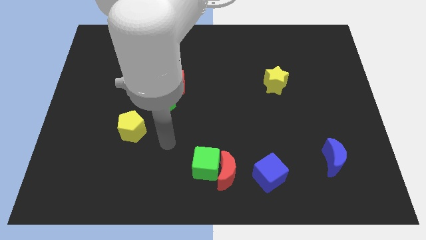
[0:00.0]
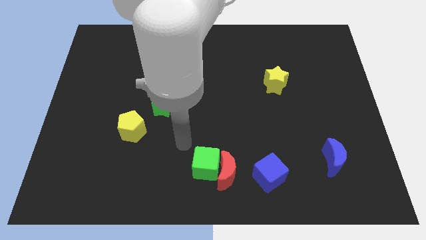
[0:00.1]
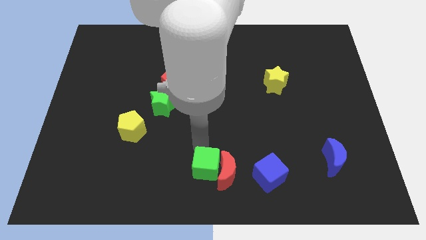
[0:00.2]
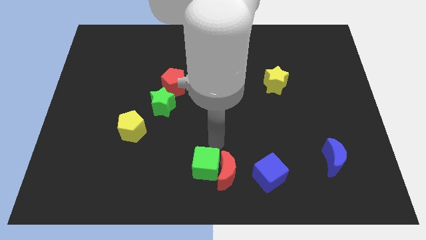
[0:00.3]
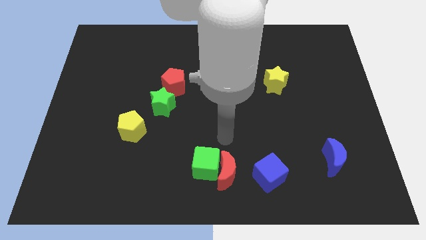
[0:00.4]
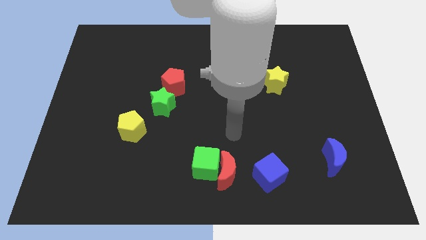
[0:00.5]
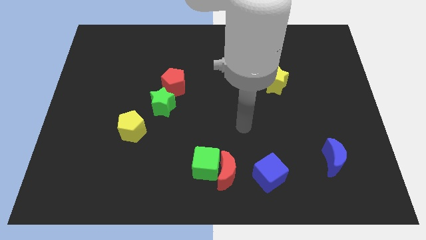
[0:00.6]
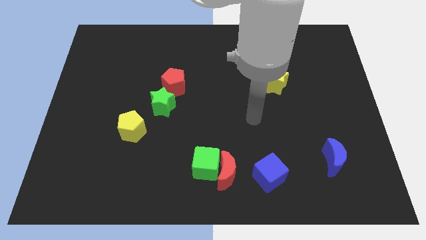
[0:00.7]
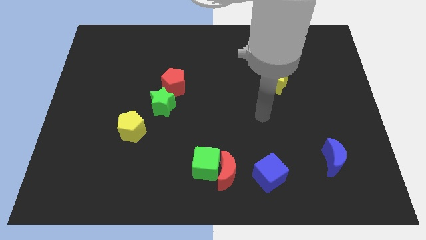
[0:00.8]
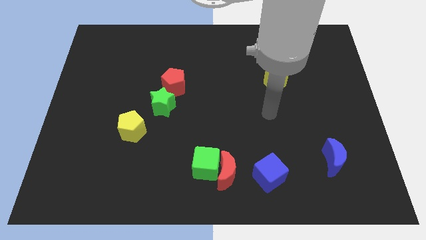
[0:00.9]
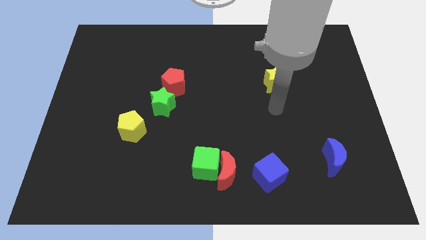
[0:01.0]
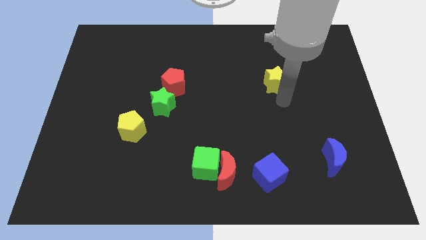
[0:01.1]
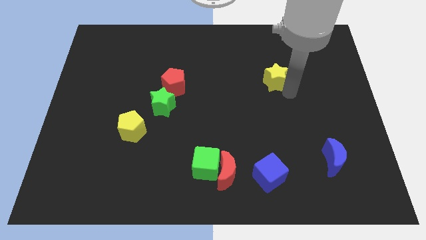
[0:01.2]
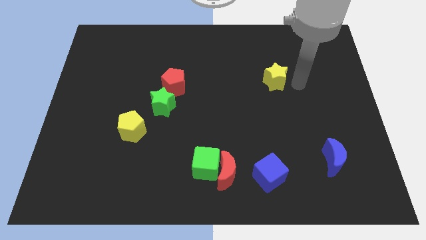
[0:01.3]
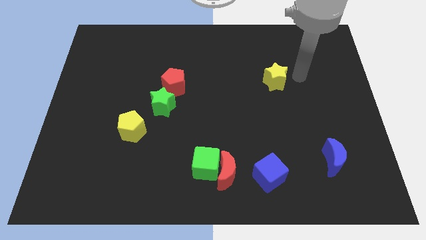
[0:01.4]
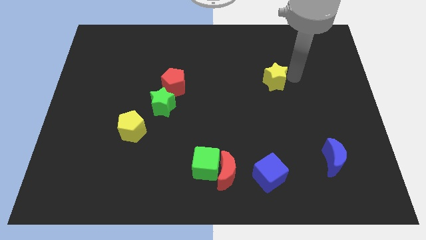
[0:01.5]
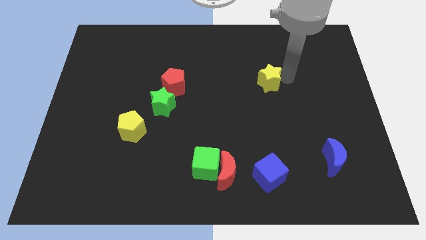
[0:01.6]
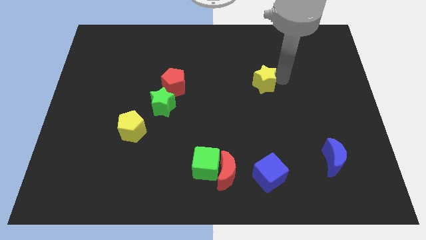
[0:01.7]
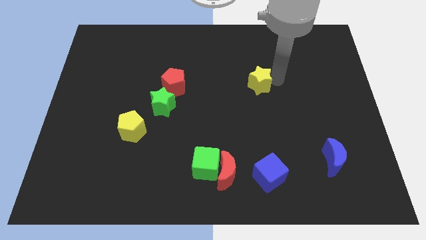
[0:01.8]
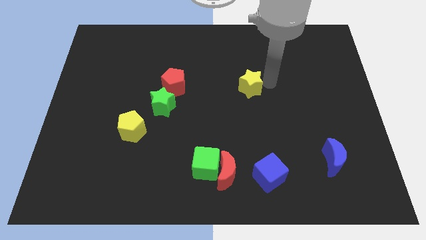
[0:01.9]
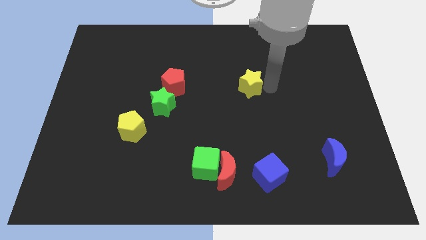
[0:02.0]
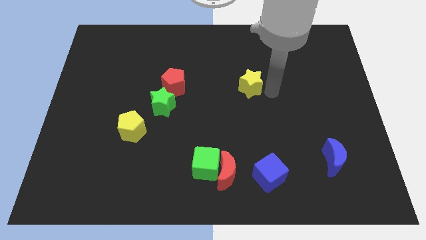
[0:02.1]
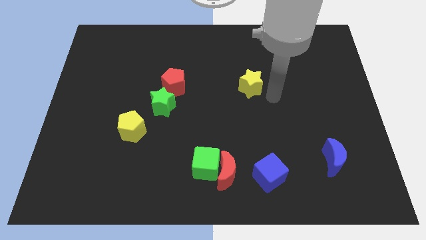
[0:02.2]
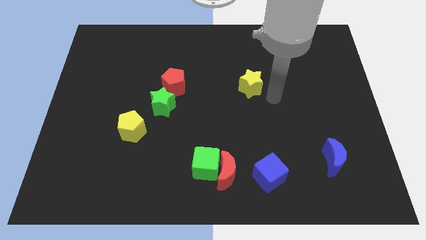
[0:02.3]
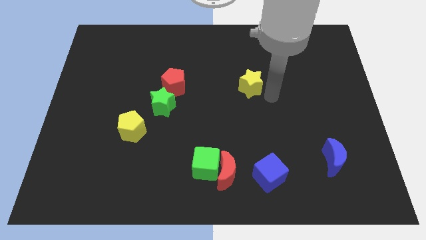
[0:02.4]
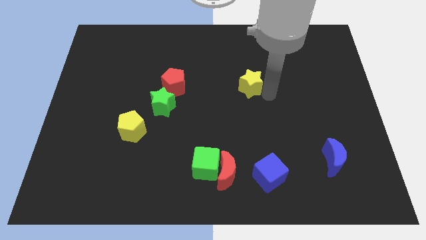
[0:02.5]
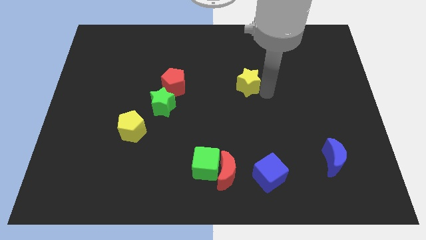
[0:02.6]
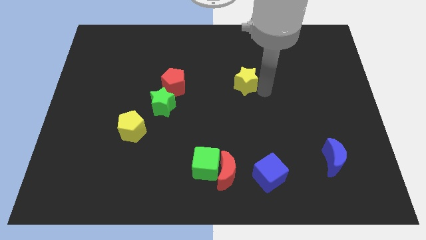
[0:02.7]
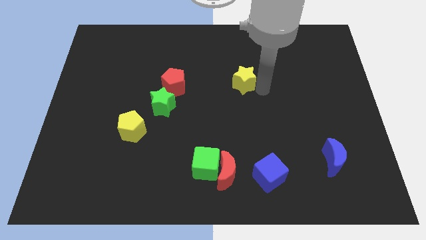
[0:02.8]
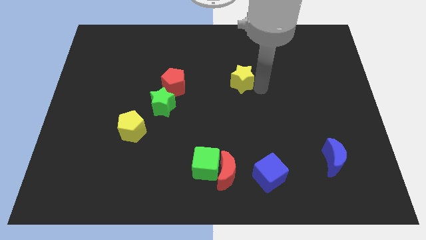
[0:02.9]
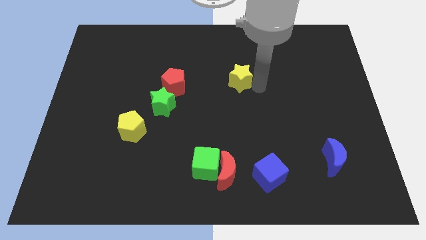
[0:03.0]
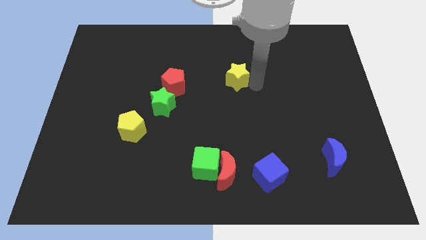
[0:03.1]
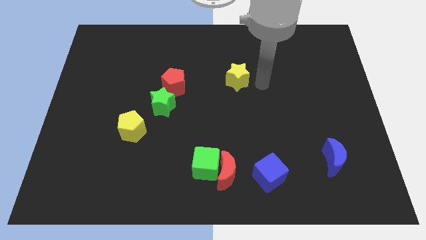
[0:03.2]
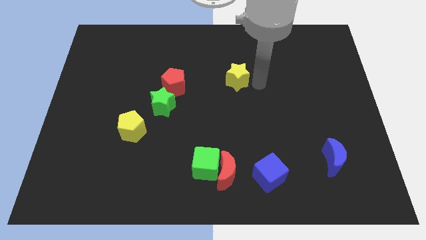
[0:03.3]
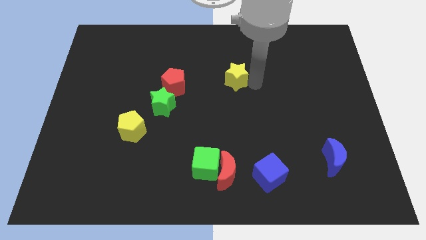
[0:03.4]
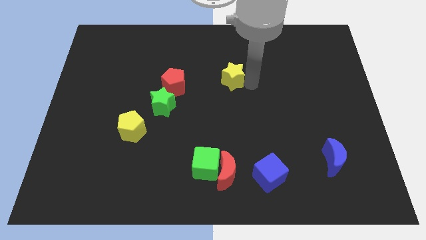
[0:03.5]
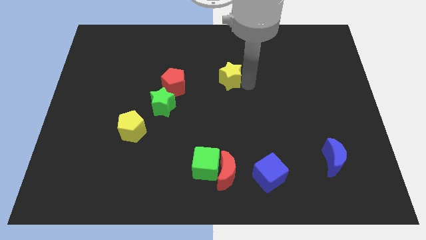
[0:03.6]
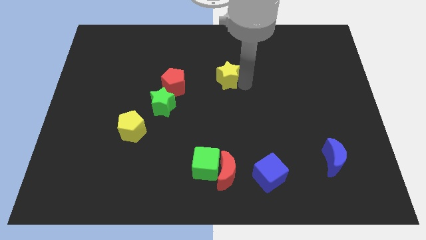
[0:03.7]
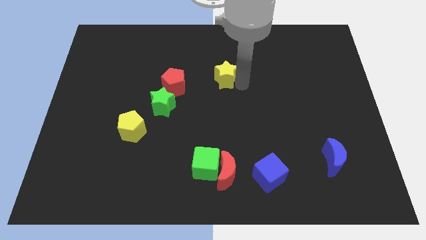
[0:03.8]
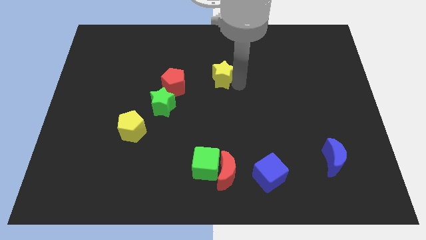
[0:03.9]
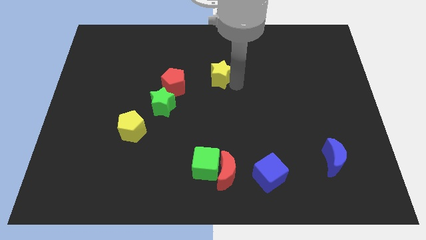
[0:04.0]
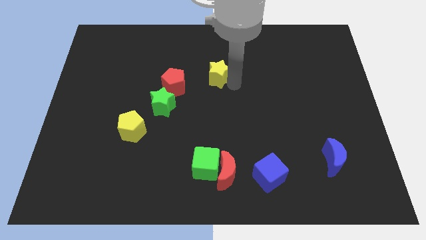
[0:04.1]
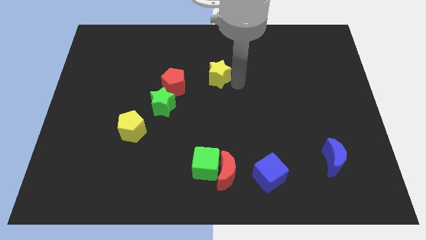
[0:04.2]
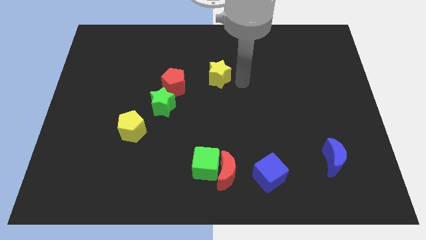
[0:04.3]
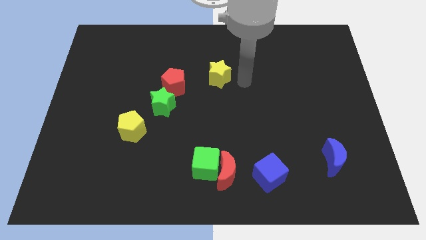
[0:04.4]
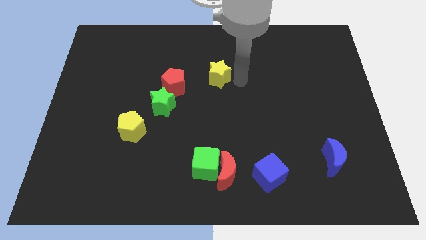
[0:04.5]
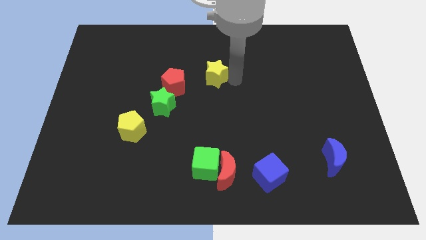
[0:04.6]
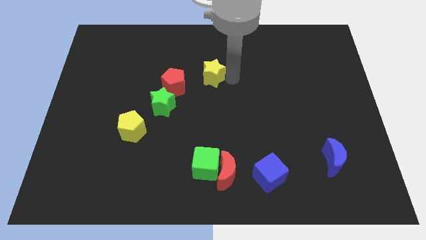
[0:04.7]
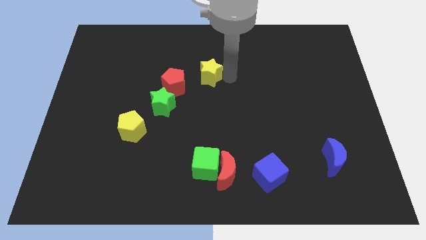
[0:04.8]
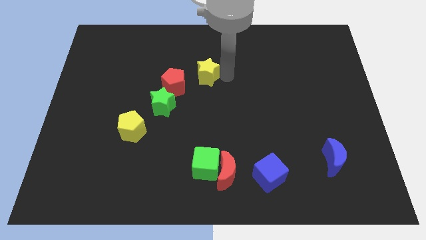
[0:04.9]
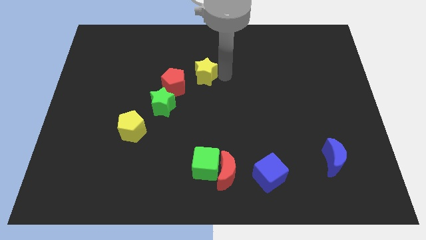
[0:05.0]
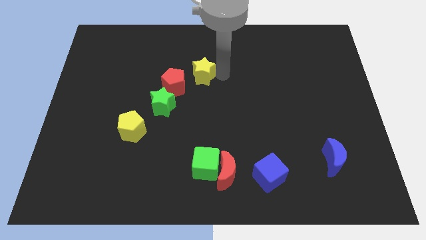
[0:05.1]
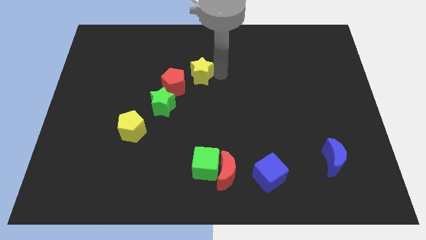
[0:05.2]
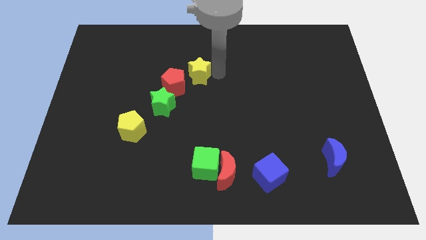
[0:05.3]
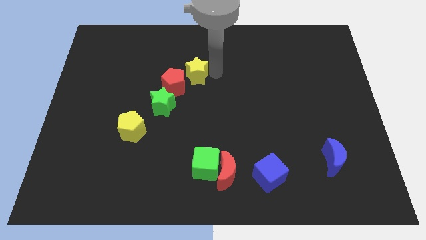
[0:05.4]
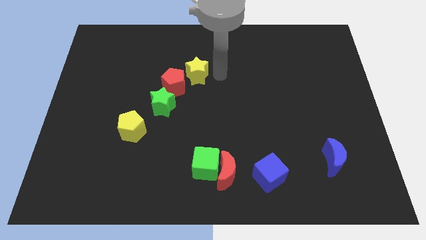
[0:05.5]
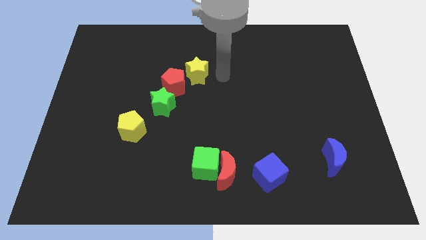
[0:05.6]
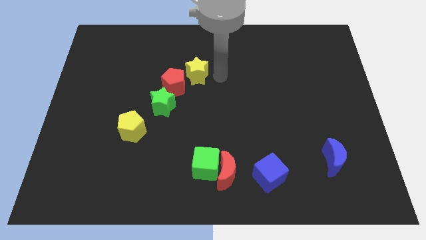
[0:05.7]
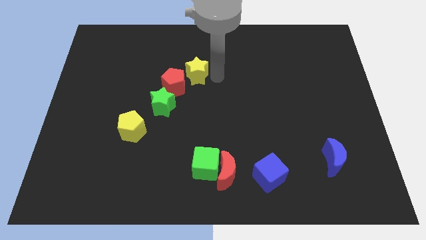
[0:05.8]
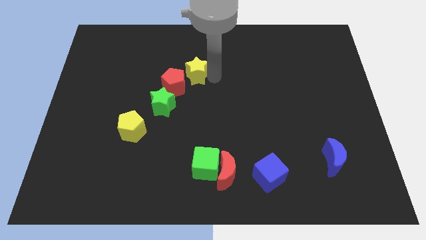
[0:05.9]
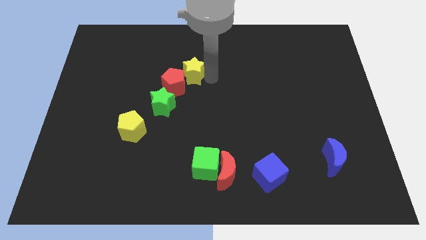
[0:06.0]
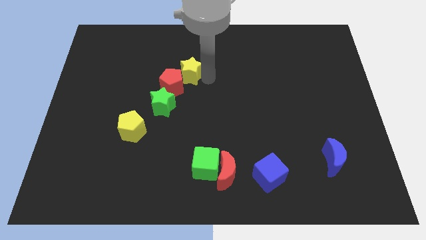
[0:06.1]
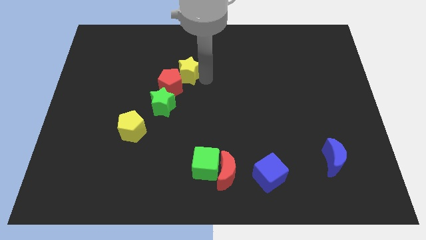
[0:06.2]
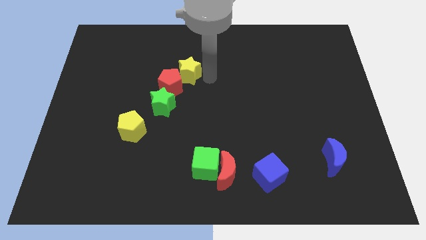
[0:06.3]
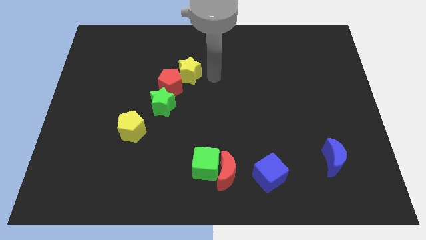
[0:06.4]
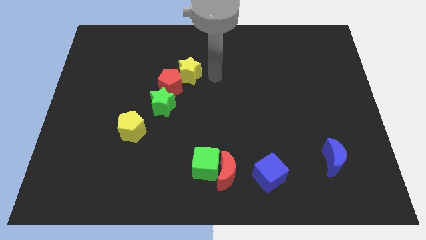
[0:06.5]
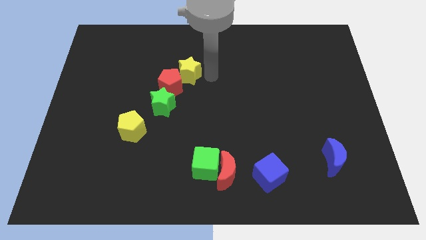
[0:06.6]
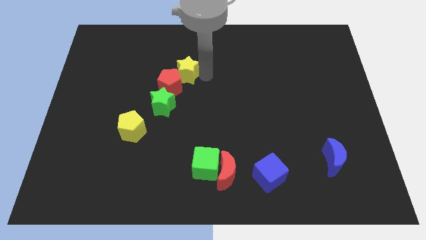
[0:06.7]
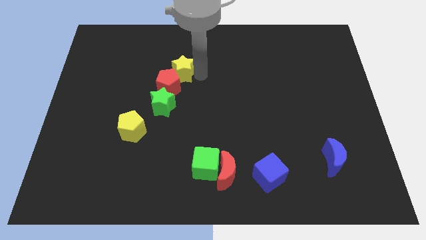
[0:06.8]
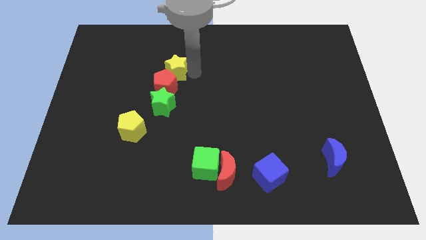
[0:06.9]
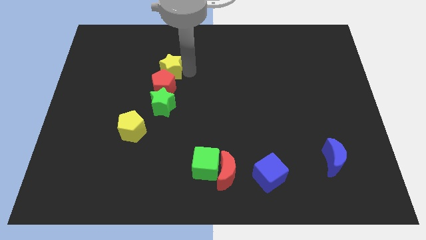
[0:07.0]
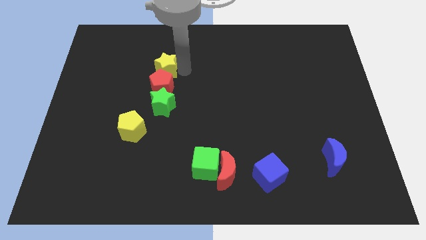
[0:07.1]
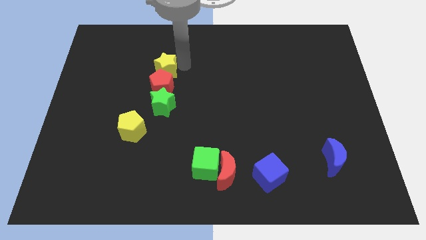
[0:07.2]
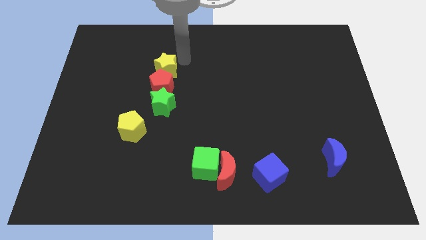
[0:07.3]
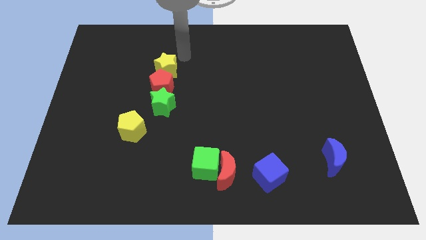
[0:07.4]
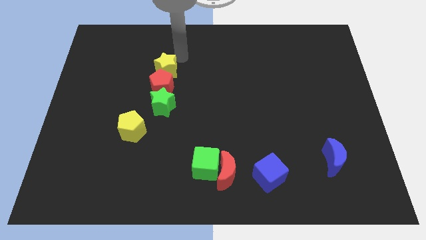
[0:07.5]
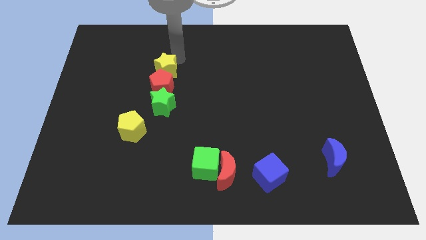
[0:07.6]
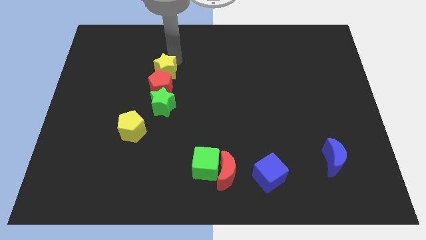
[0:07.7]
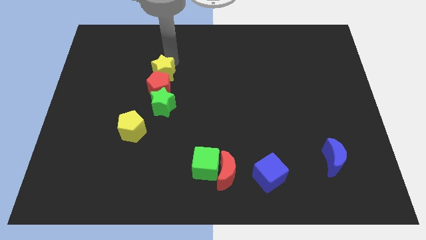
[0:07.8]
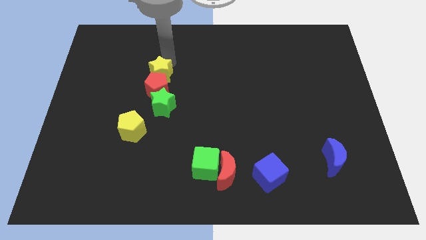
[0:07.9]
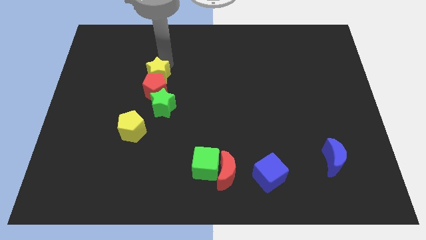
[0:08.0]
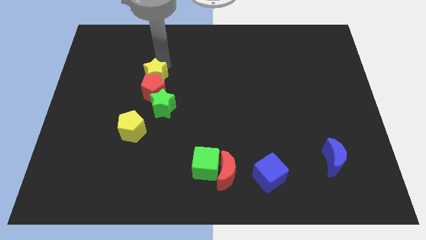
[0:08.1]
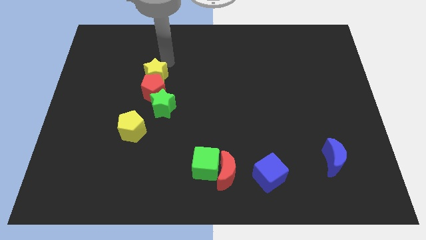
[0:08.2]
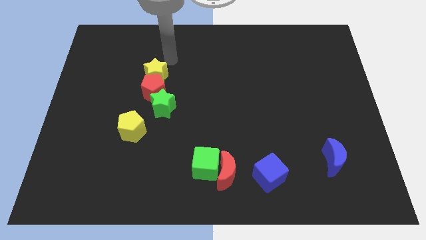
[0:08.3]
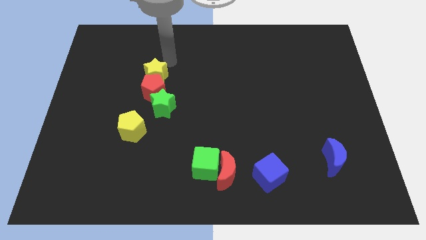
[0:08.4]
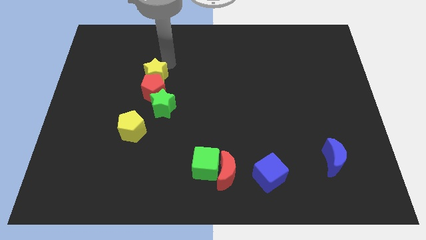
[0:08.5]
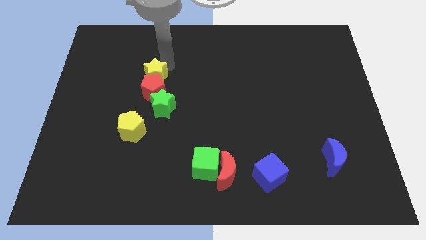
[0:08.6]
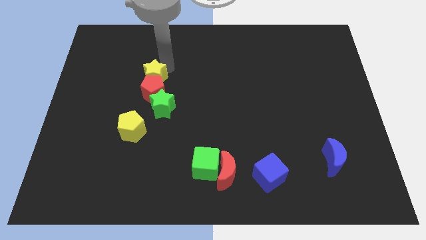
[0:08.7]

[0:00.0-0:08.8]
slide the yellow star to the top left of the green star
